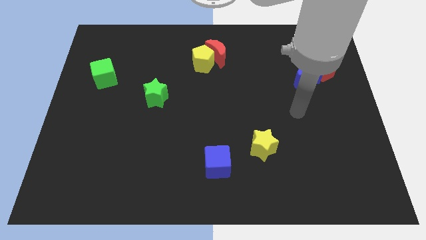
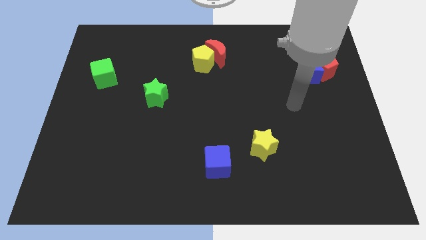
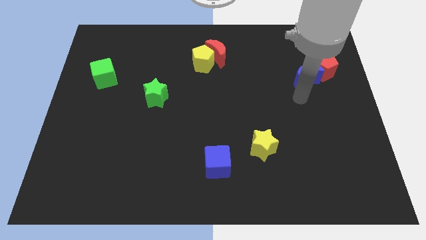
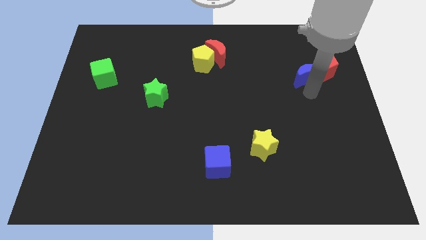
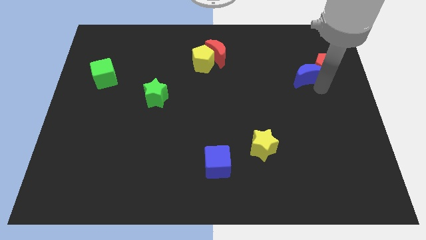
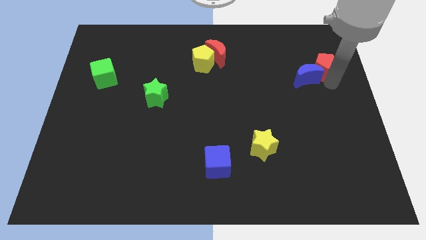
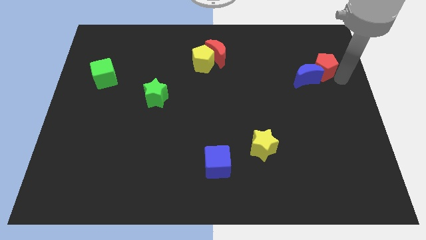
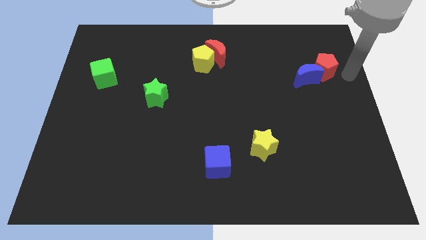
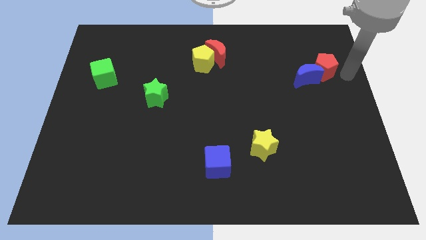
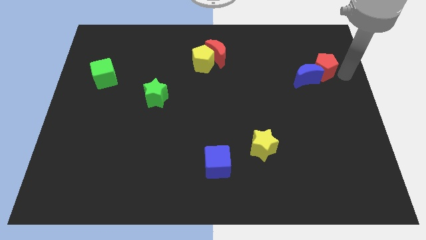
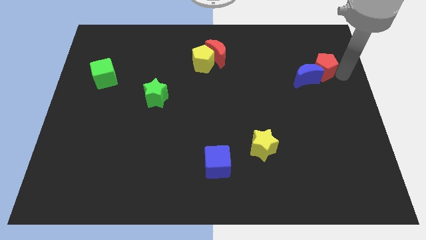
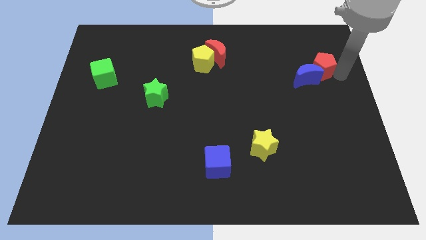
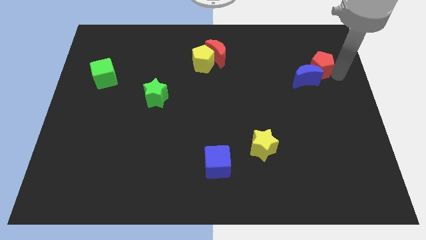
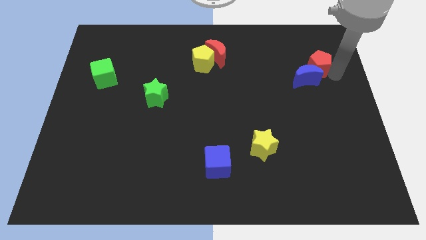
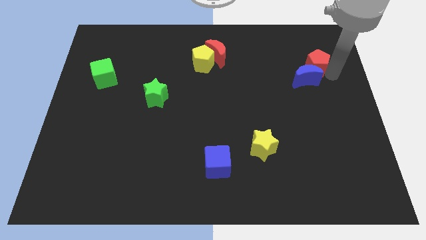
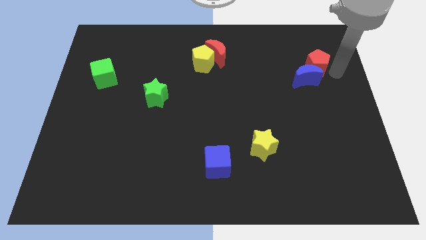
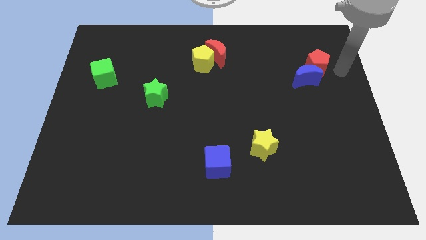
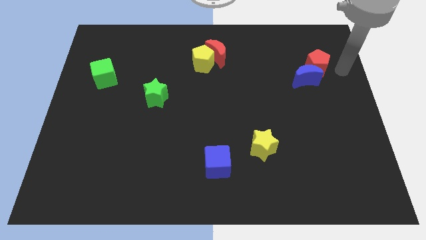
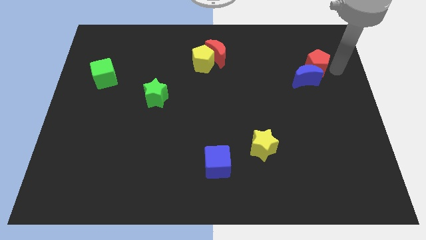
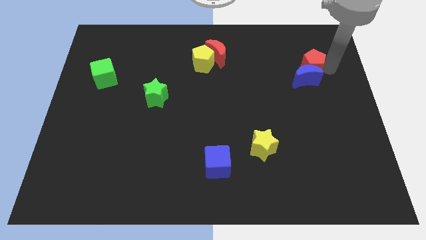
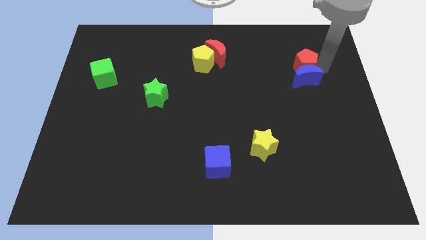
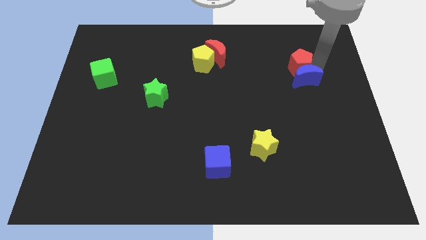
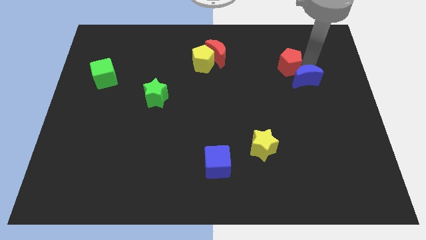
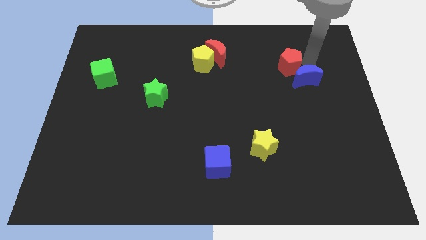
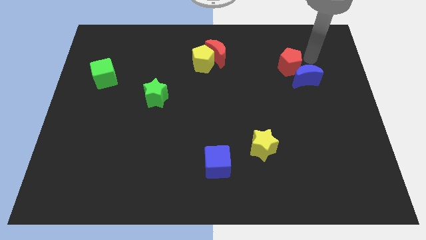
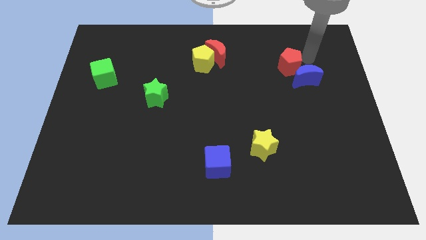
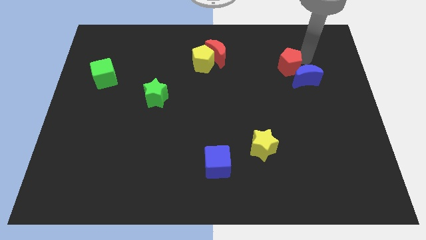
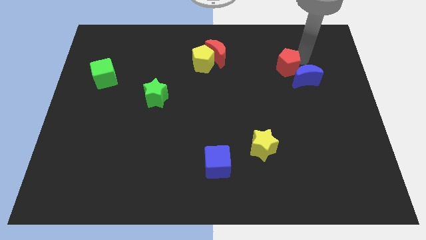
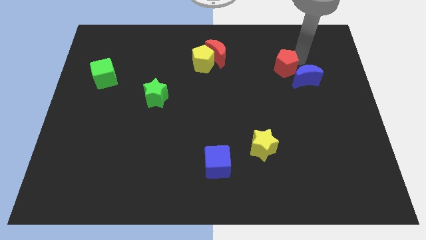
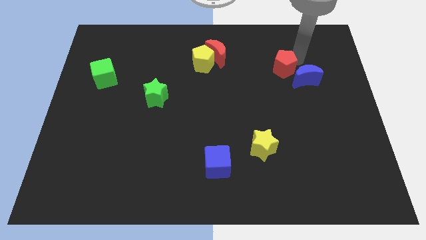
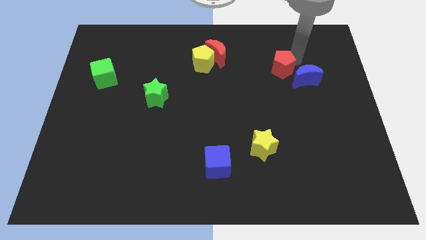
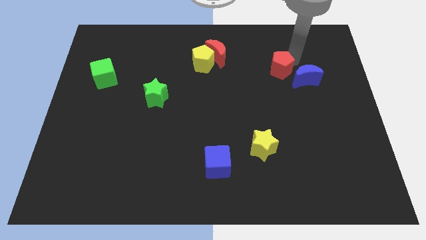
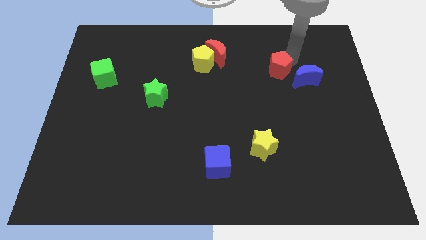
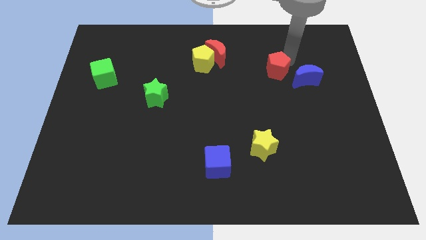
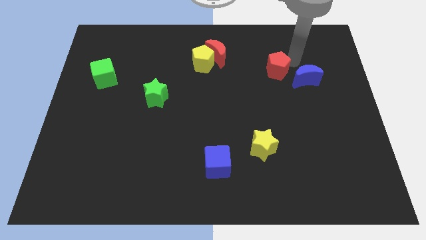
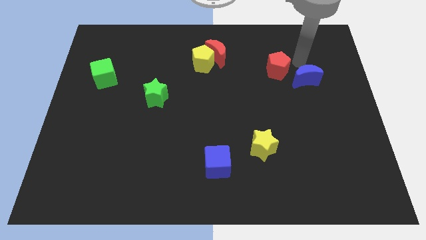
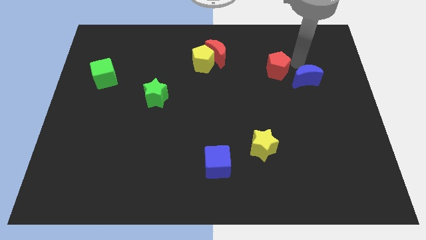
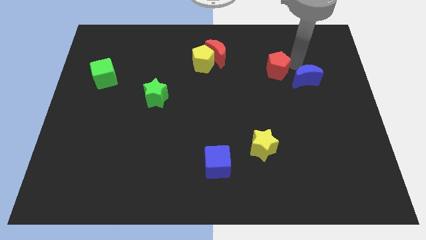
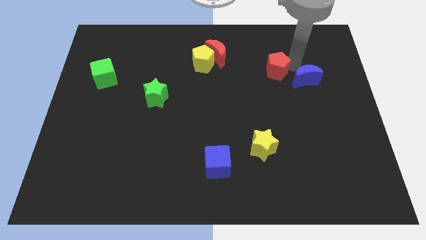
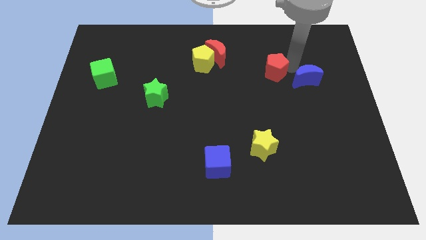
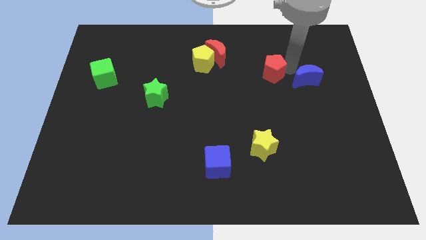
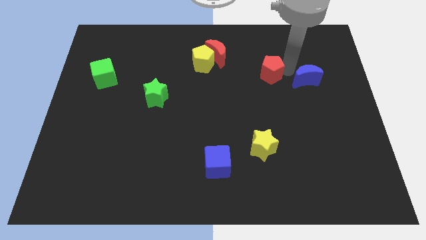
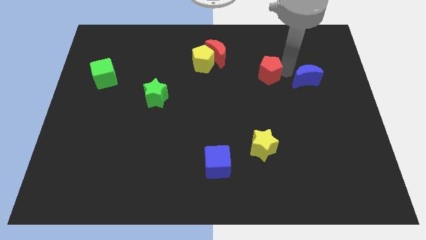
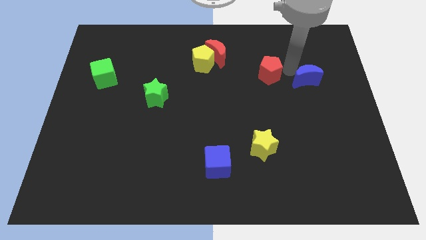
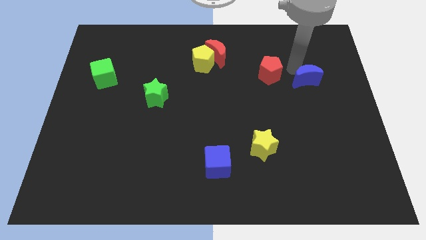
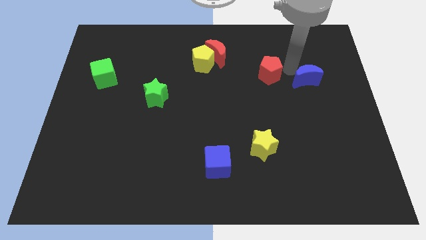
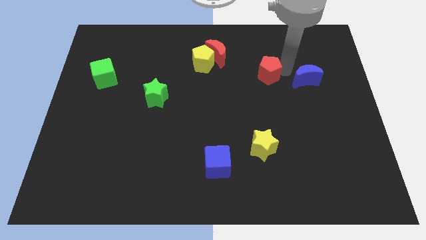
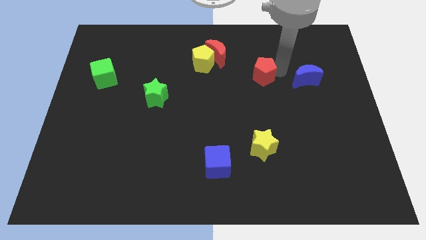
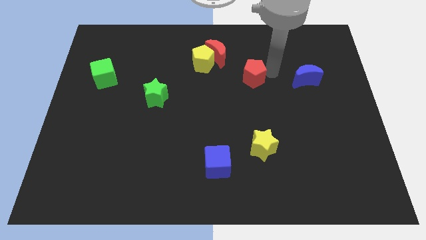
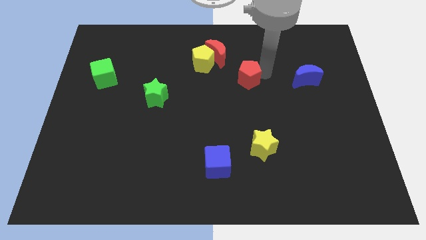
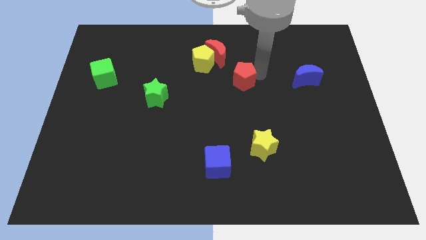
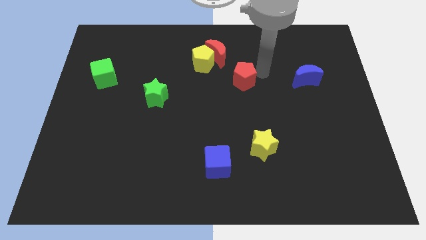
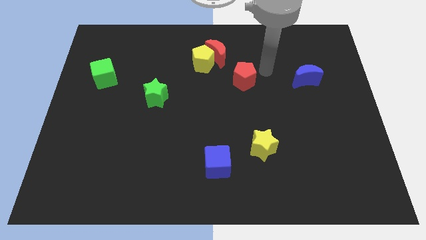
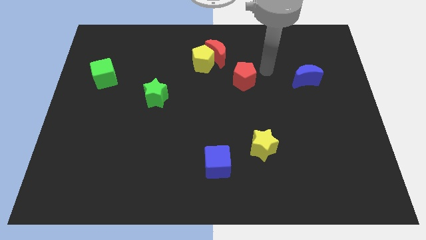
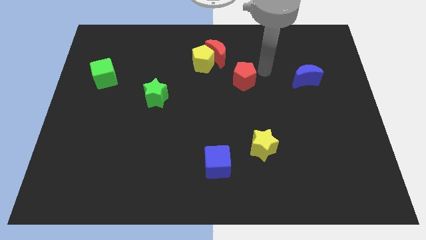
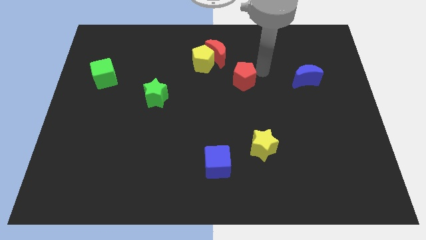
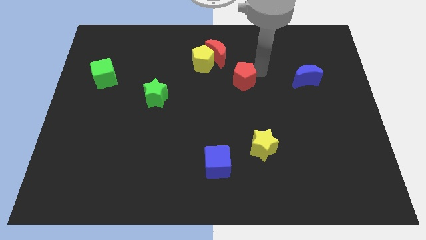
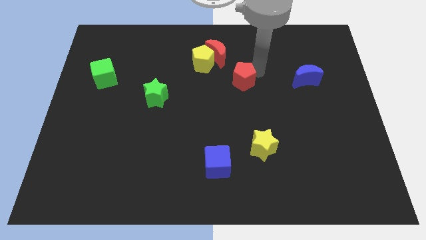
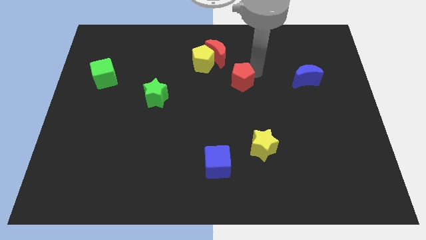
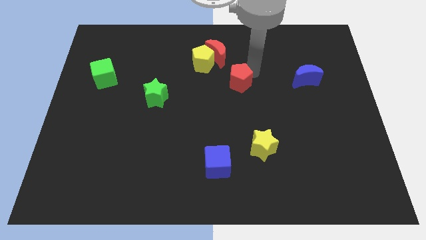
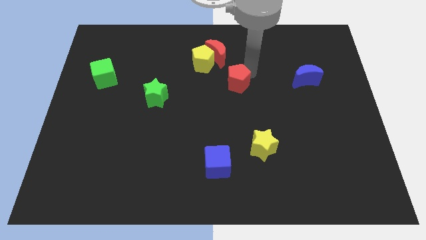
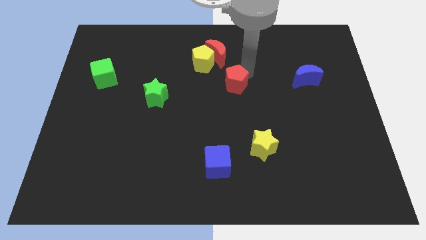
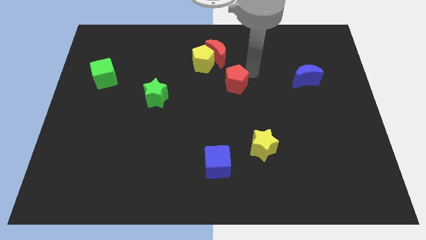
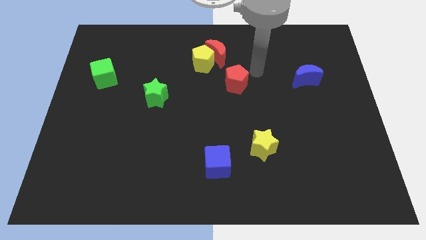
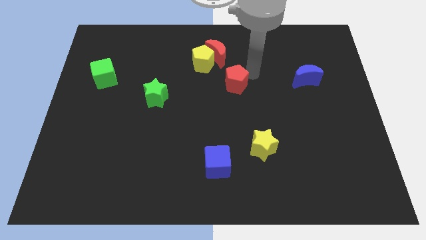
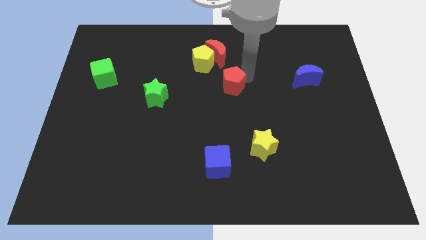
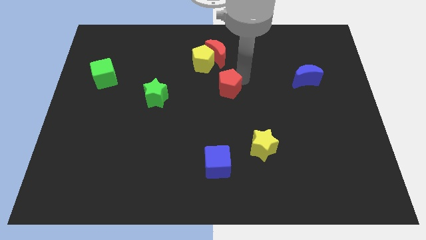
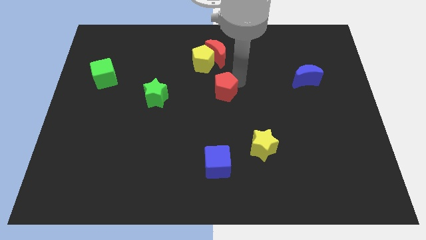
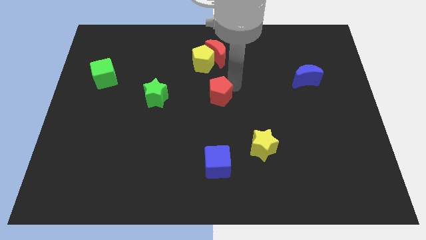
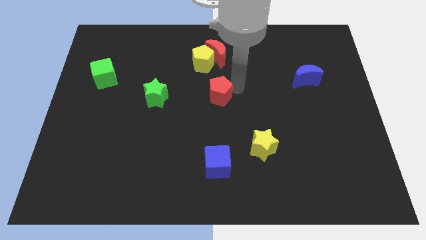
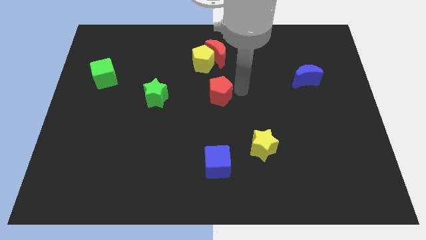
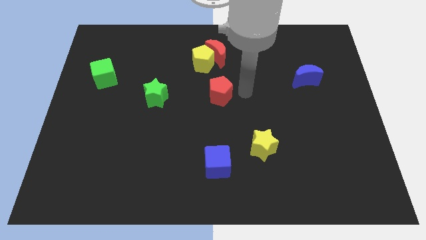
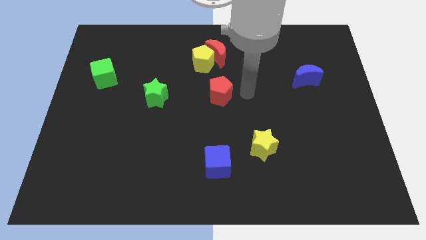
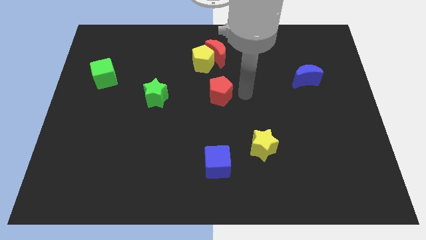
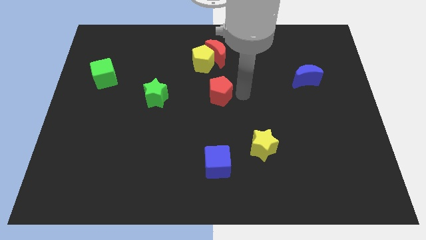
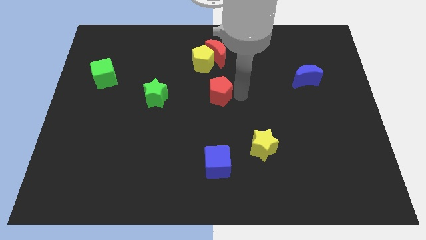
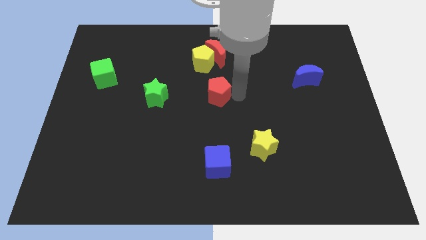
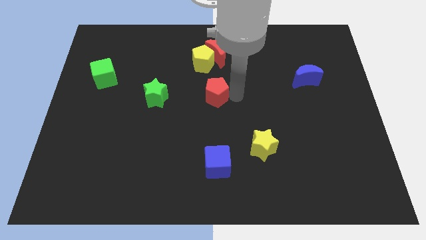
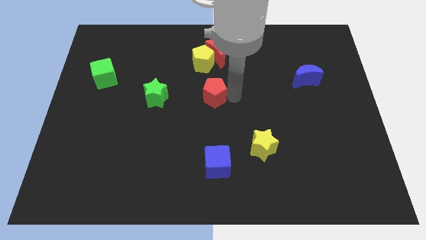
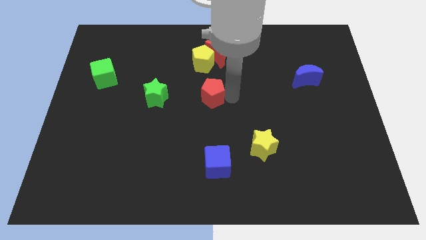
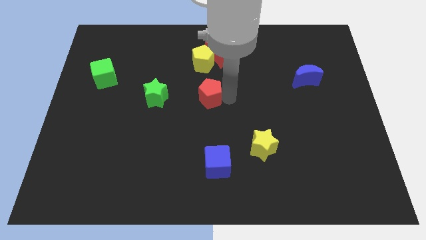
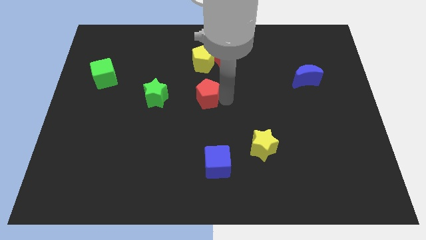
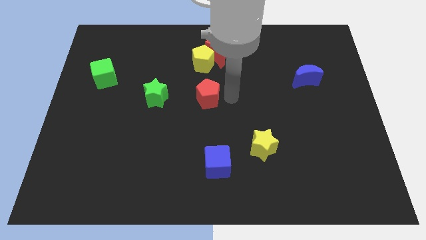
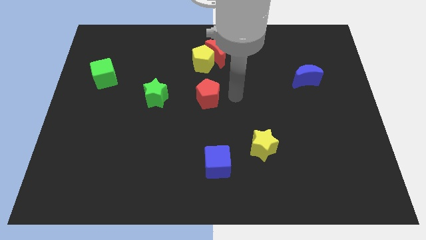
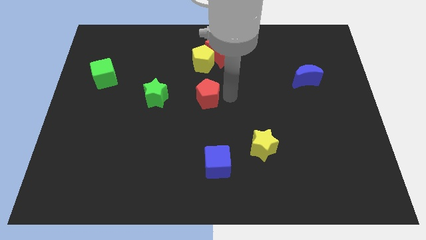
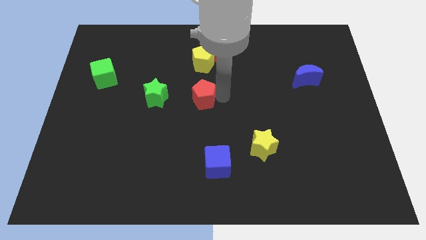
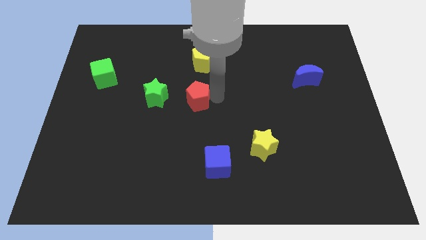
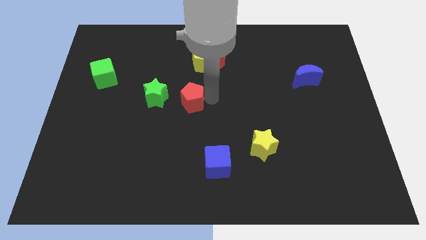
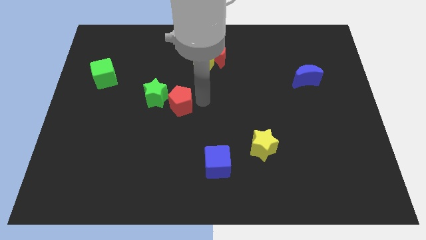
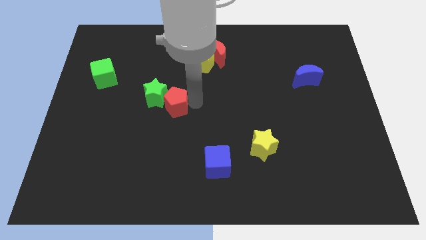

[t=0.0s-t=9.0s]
move the red pentagon next to the green star
